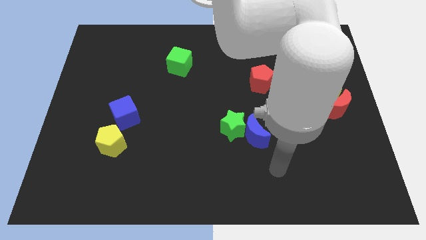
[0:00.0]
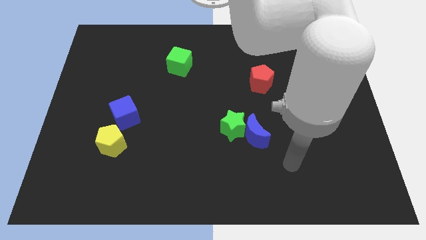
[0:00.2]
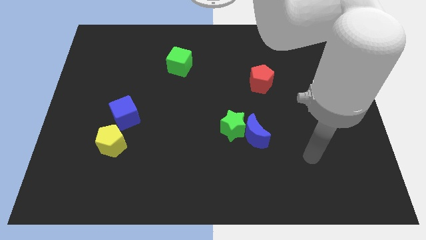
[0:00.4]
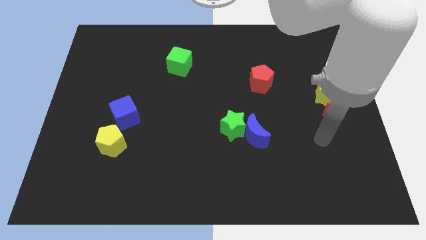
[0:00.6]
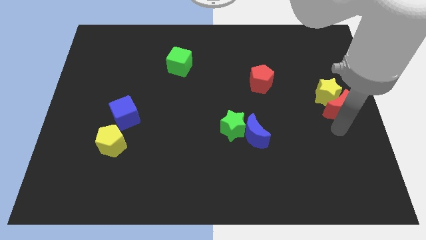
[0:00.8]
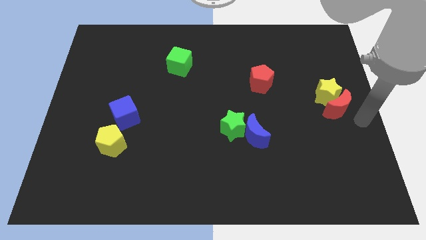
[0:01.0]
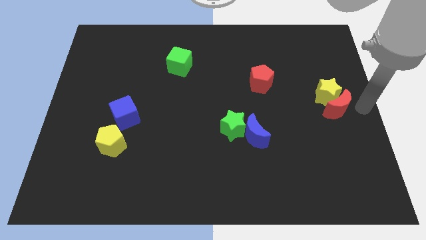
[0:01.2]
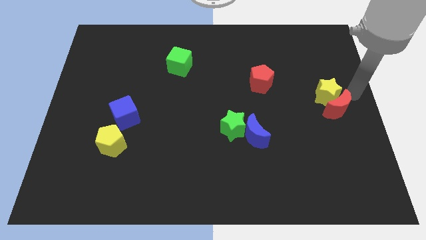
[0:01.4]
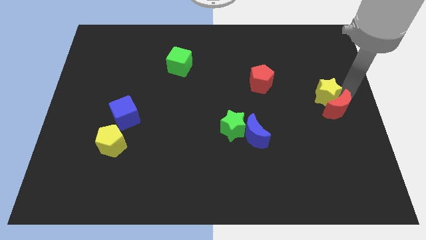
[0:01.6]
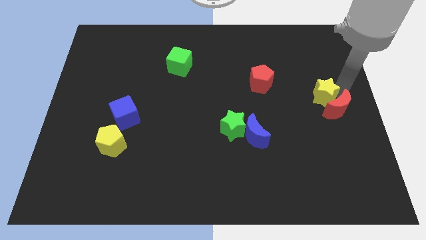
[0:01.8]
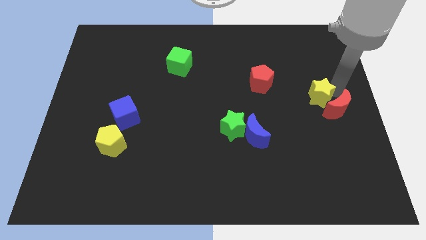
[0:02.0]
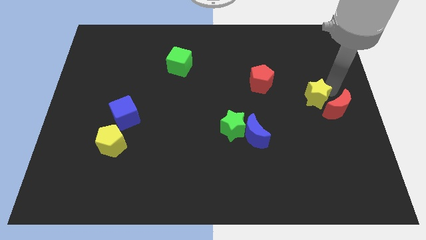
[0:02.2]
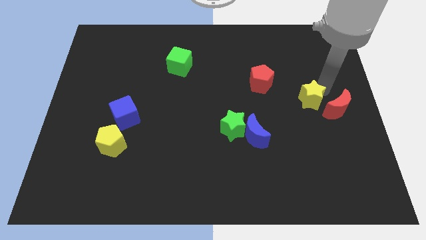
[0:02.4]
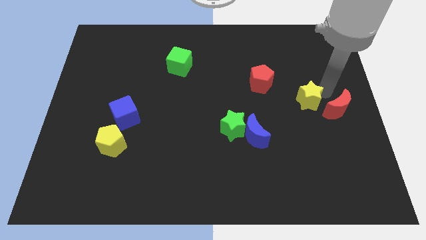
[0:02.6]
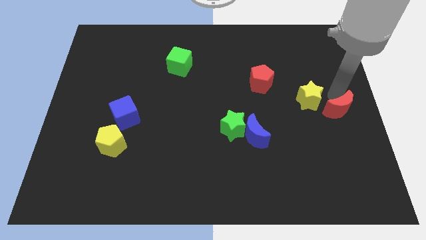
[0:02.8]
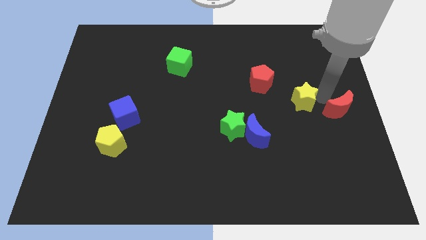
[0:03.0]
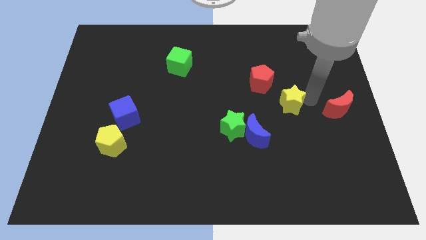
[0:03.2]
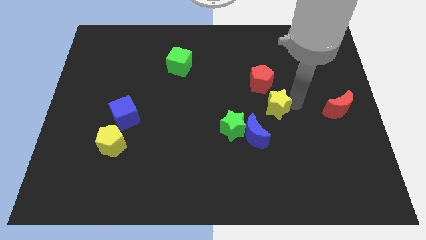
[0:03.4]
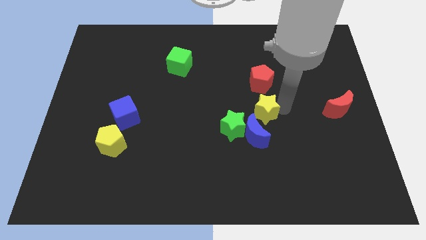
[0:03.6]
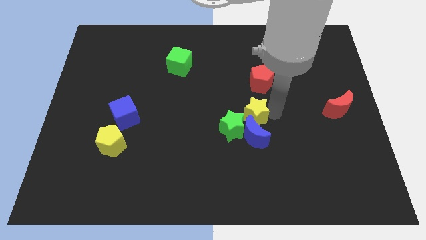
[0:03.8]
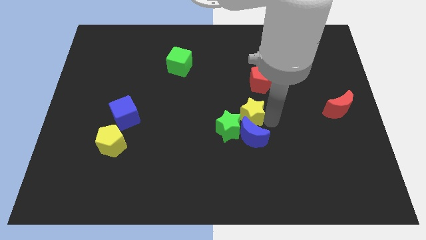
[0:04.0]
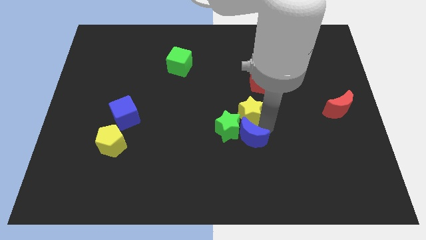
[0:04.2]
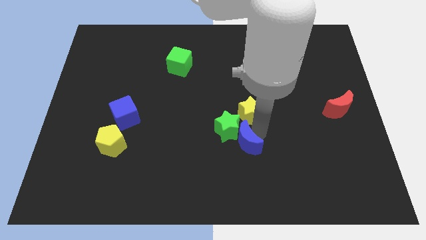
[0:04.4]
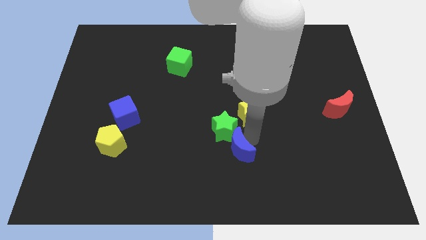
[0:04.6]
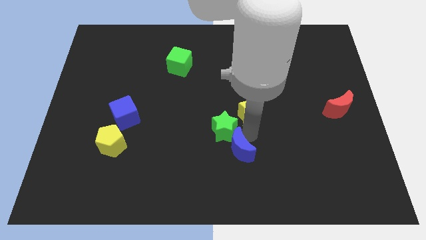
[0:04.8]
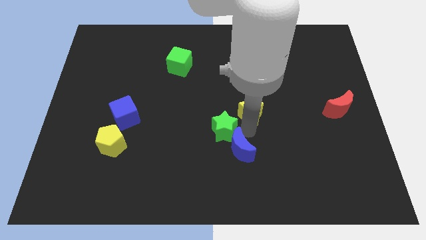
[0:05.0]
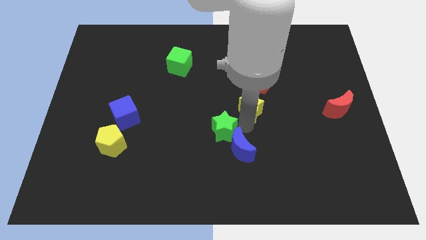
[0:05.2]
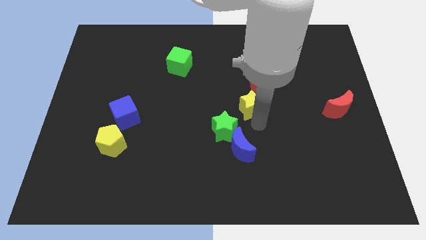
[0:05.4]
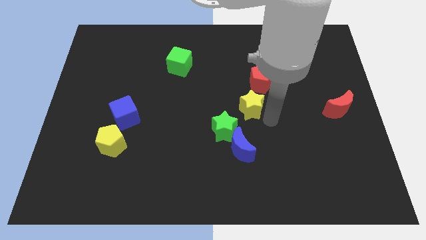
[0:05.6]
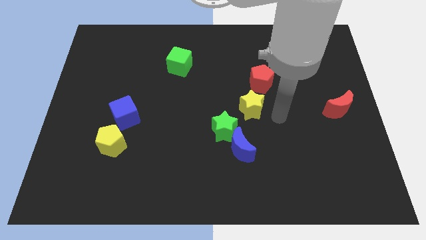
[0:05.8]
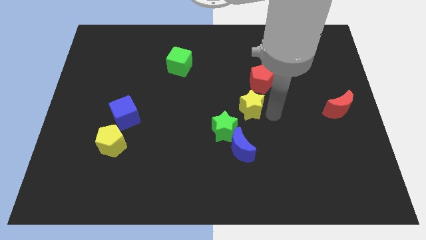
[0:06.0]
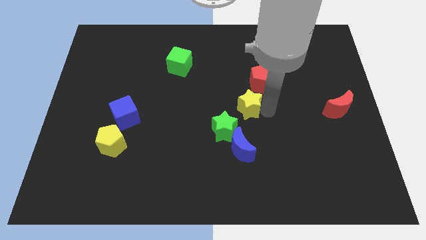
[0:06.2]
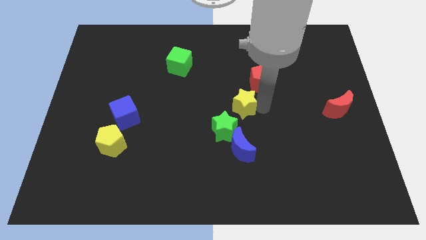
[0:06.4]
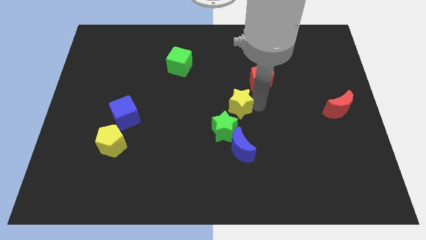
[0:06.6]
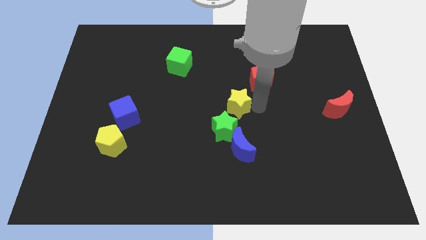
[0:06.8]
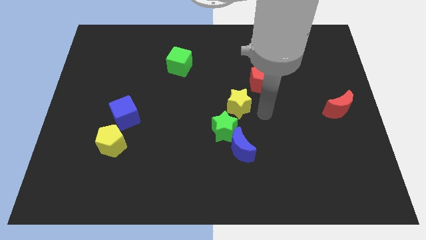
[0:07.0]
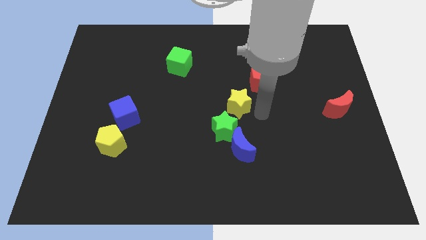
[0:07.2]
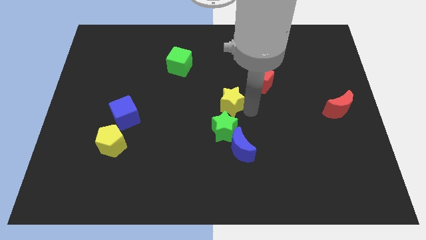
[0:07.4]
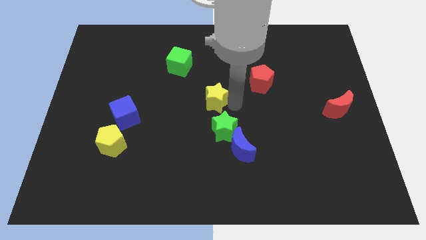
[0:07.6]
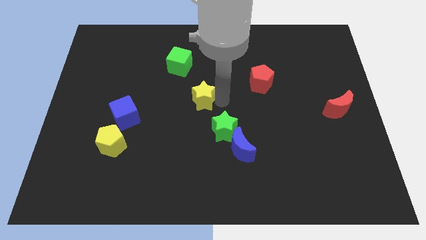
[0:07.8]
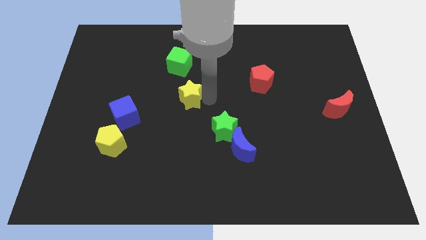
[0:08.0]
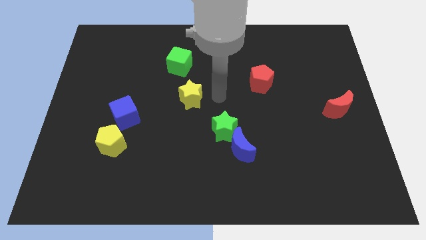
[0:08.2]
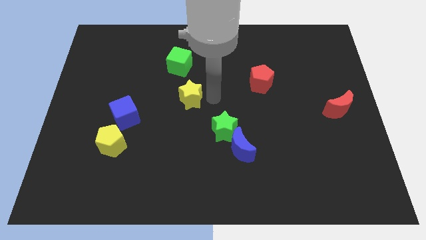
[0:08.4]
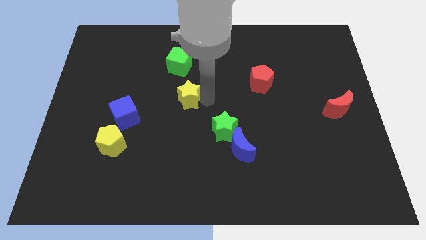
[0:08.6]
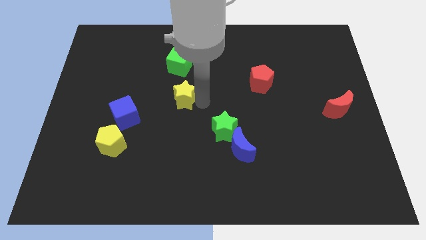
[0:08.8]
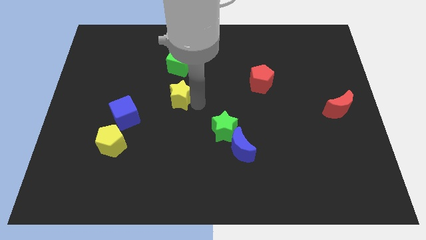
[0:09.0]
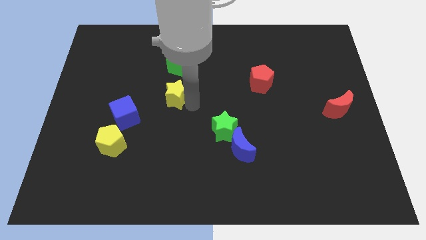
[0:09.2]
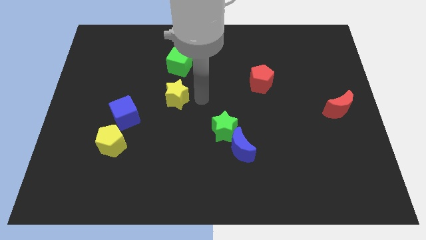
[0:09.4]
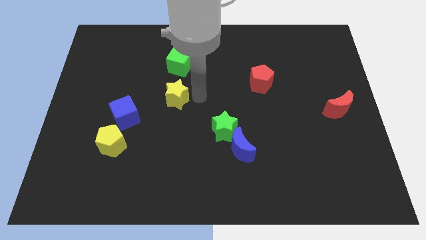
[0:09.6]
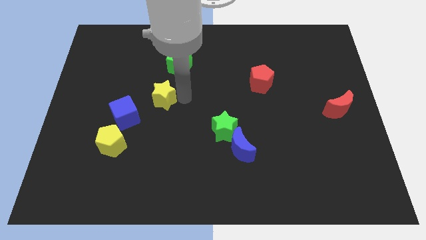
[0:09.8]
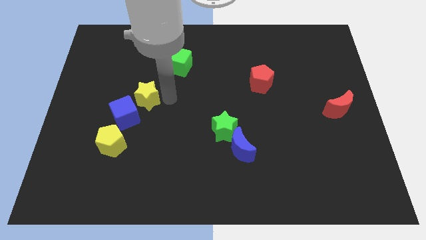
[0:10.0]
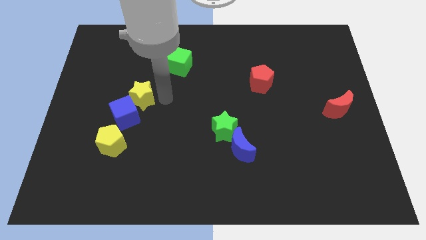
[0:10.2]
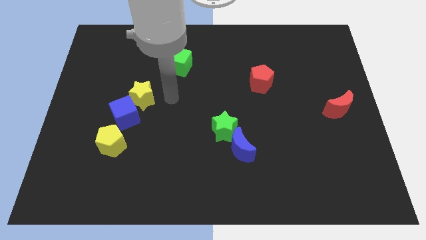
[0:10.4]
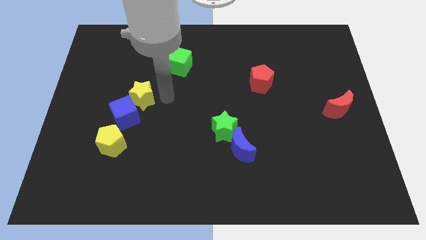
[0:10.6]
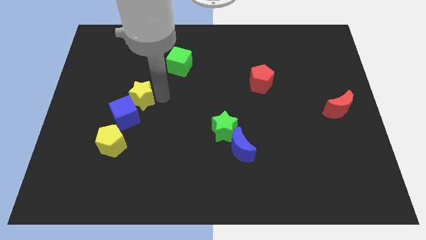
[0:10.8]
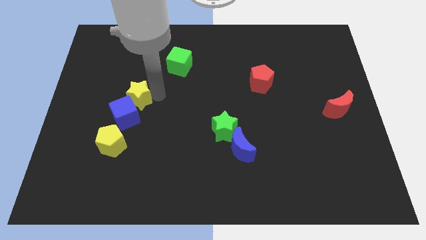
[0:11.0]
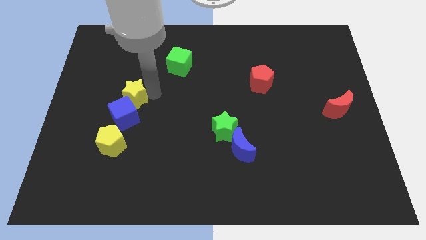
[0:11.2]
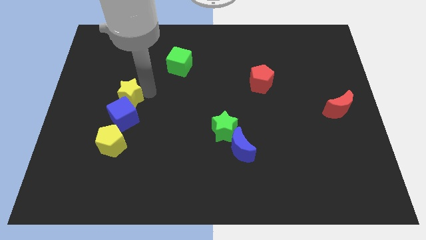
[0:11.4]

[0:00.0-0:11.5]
slide the yellow star to the top left side of the blue cube

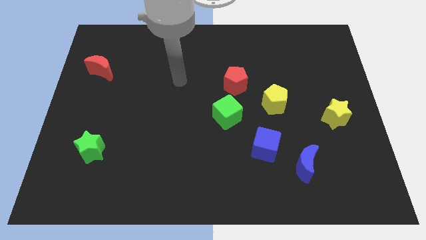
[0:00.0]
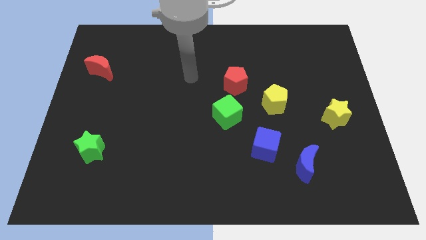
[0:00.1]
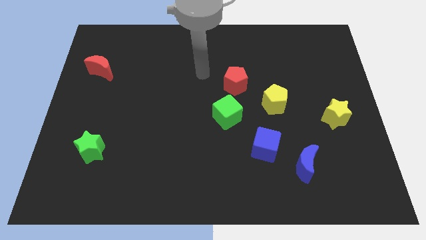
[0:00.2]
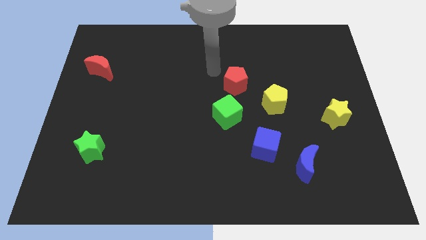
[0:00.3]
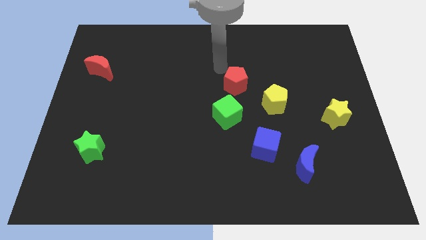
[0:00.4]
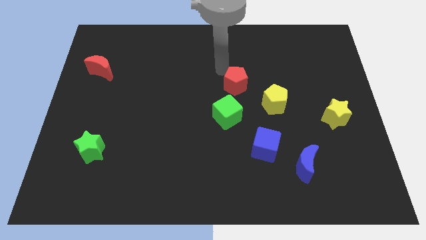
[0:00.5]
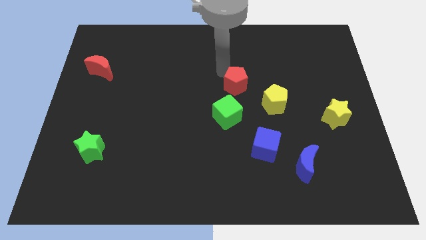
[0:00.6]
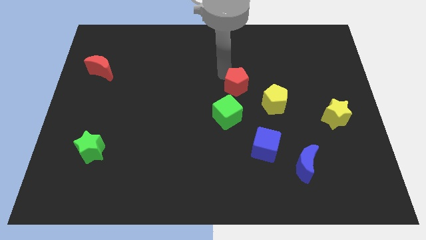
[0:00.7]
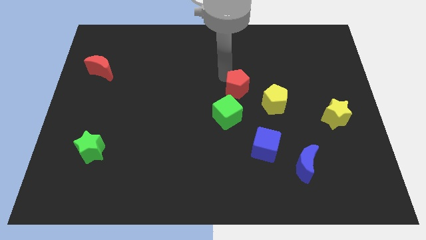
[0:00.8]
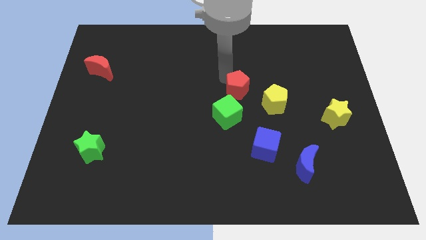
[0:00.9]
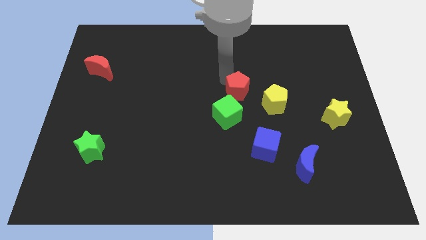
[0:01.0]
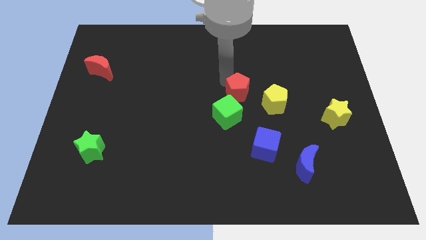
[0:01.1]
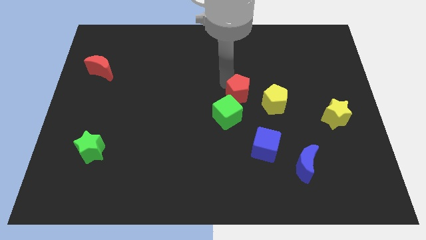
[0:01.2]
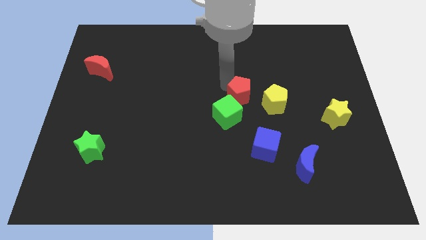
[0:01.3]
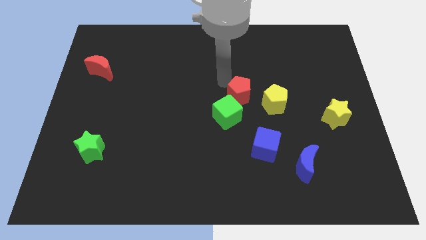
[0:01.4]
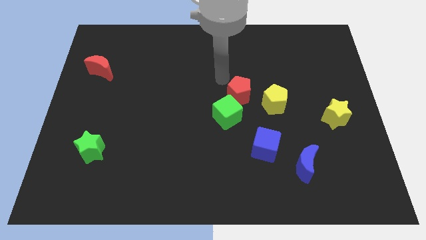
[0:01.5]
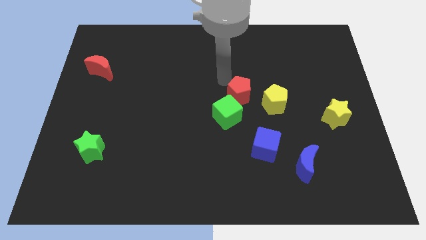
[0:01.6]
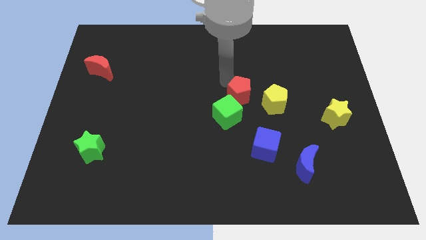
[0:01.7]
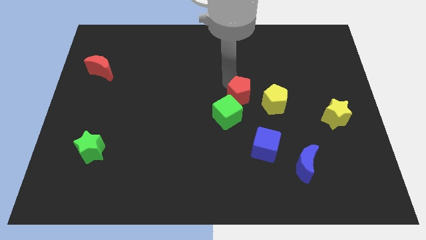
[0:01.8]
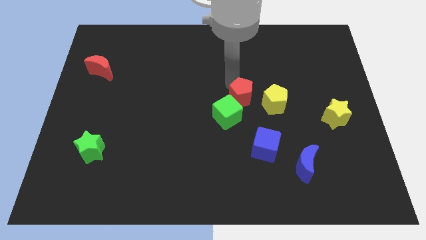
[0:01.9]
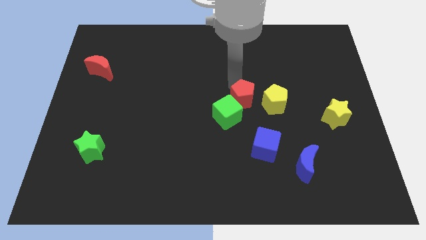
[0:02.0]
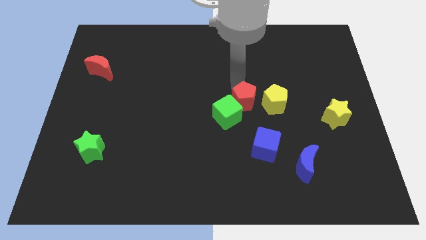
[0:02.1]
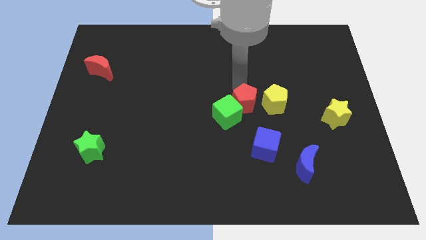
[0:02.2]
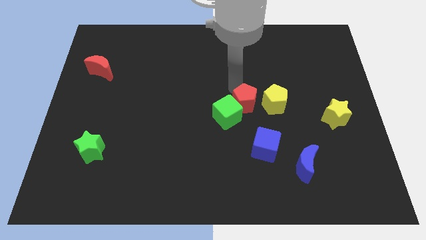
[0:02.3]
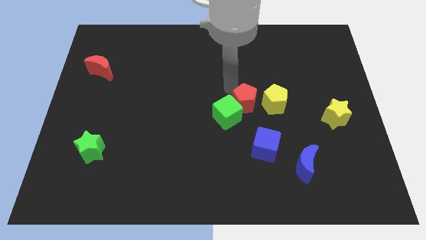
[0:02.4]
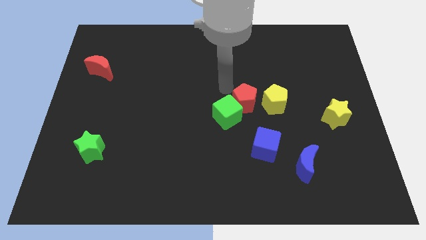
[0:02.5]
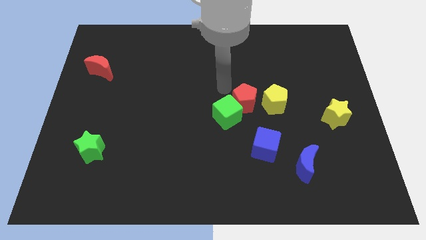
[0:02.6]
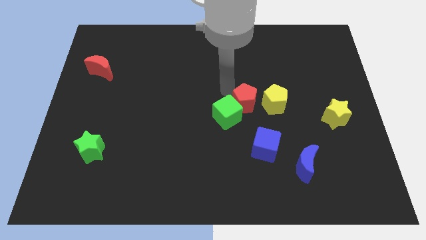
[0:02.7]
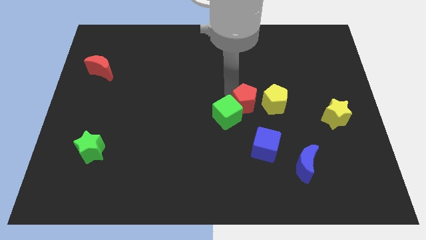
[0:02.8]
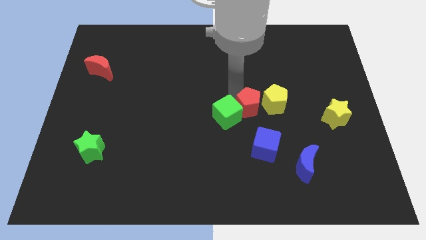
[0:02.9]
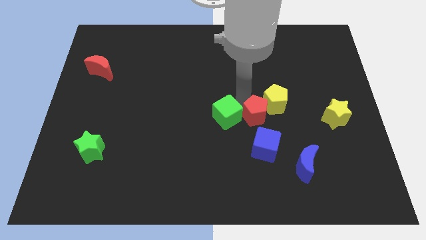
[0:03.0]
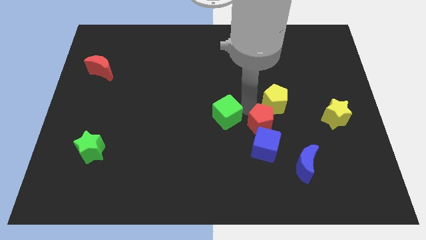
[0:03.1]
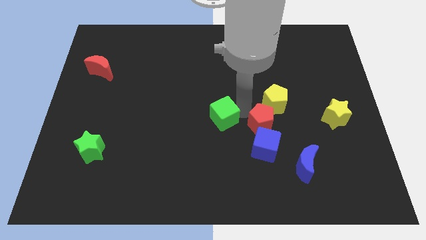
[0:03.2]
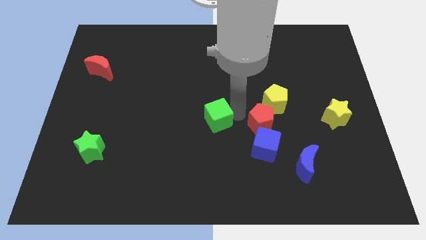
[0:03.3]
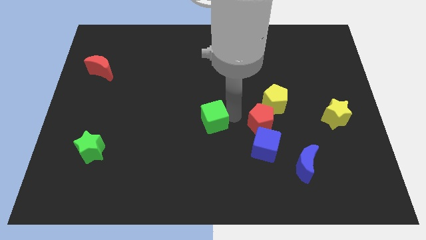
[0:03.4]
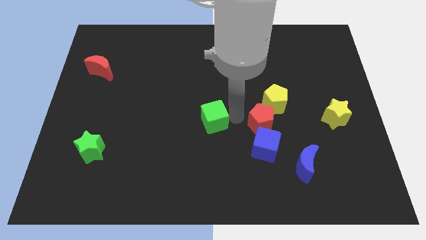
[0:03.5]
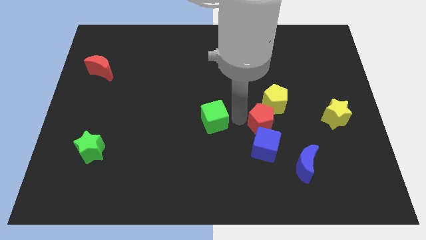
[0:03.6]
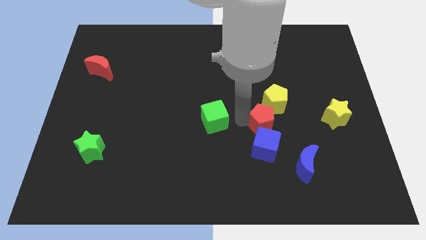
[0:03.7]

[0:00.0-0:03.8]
put the red pentagon to the top right of the blue cube
